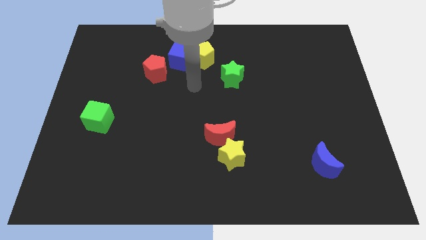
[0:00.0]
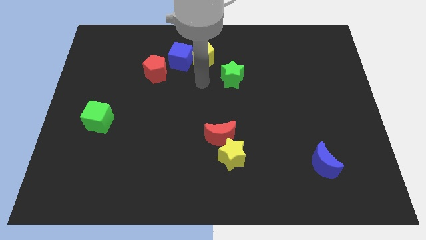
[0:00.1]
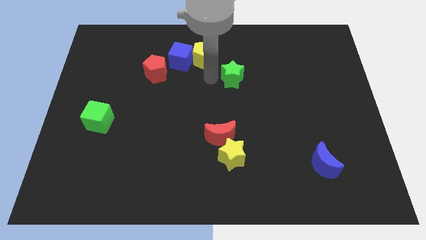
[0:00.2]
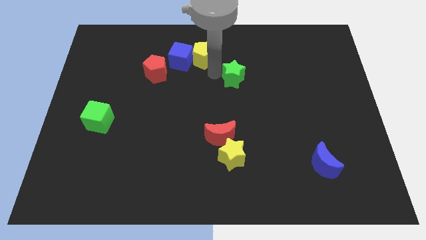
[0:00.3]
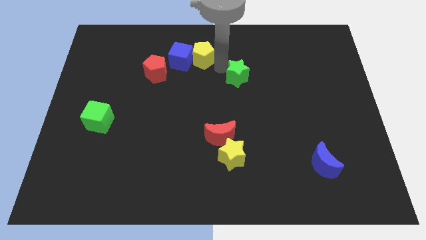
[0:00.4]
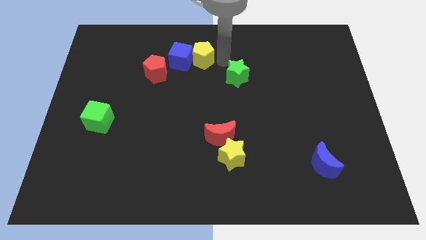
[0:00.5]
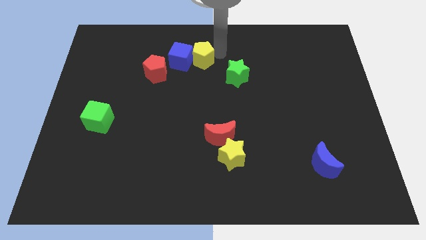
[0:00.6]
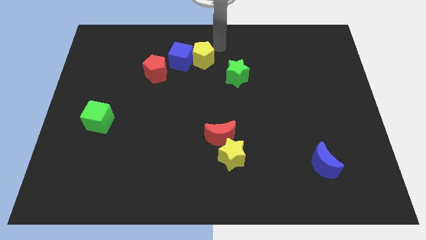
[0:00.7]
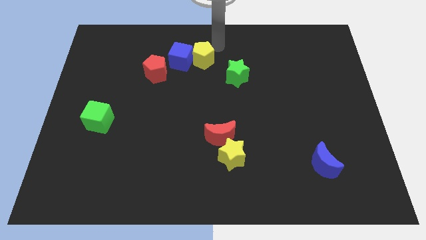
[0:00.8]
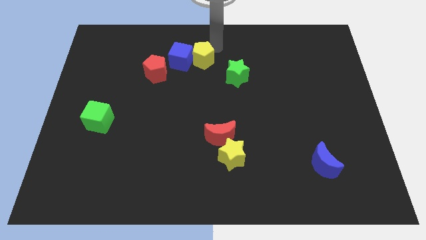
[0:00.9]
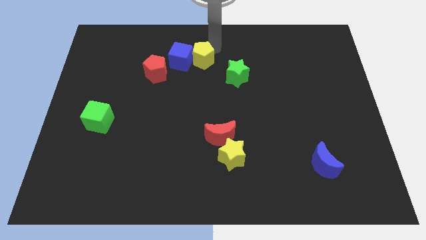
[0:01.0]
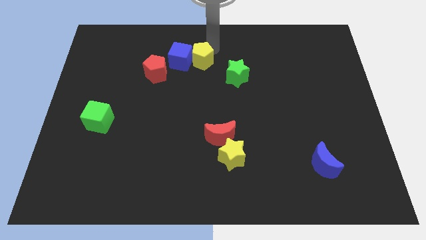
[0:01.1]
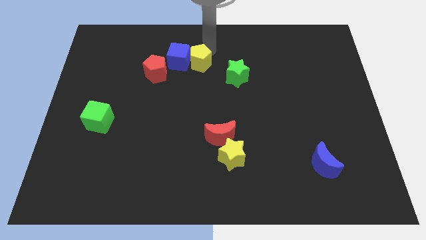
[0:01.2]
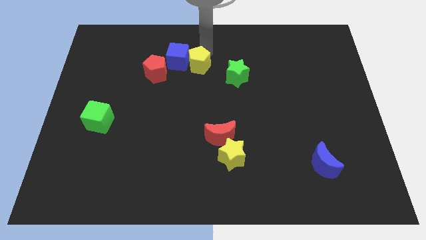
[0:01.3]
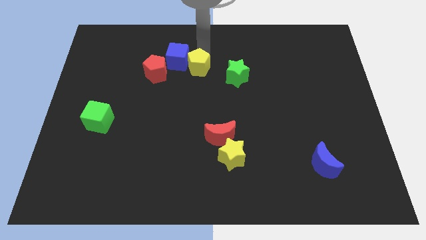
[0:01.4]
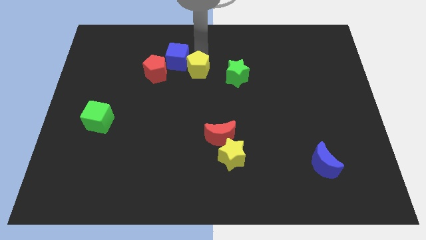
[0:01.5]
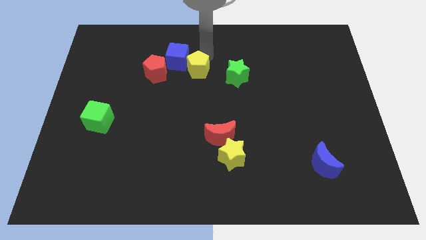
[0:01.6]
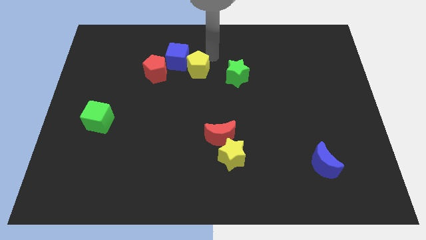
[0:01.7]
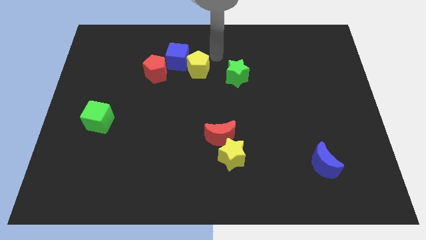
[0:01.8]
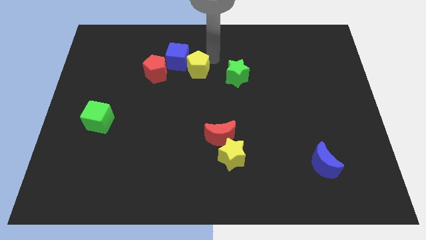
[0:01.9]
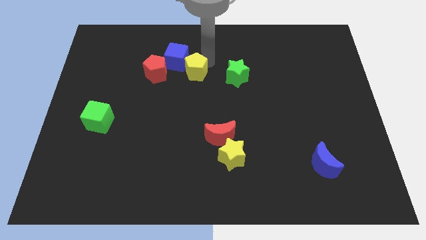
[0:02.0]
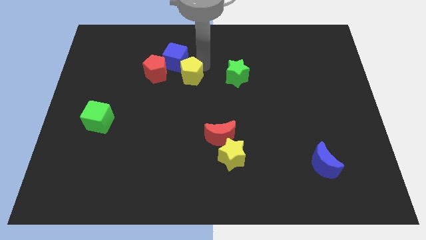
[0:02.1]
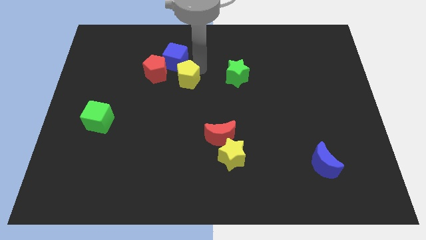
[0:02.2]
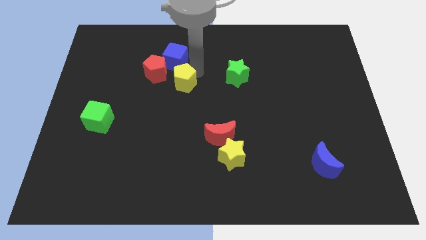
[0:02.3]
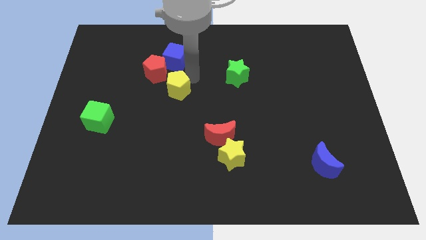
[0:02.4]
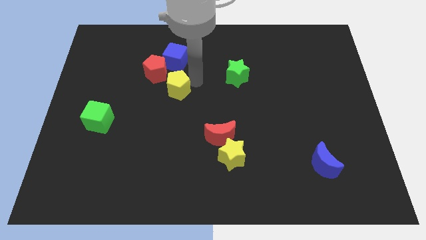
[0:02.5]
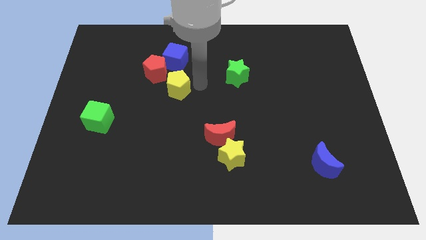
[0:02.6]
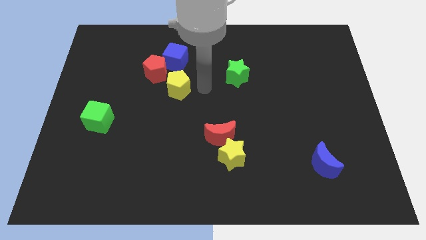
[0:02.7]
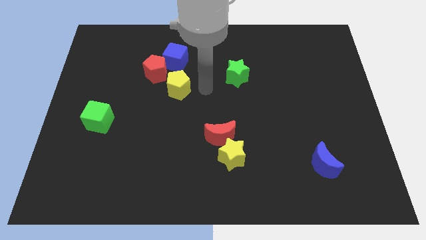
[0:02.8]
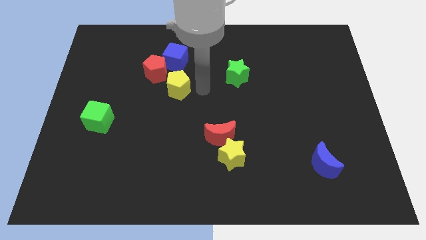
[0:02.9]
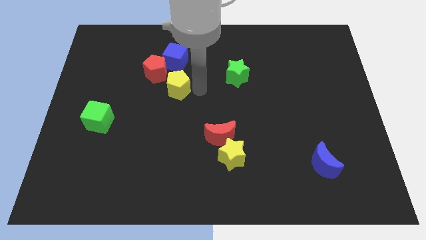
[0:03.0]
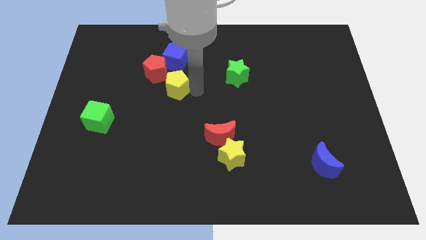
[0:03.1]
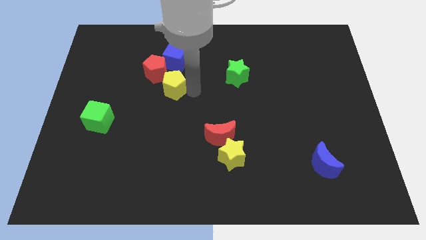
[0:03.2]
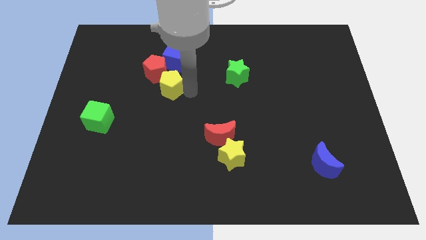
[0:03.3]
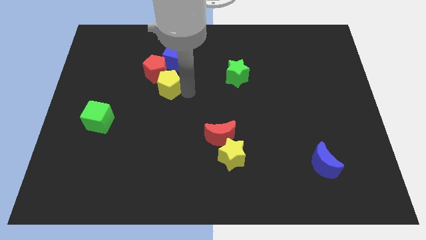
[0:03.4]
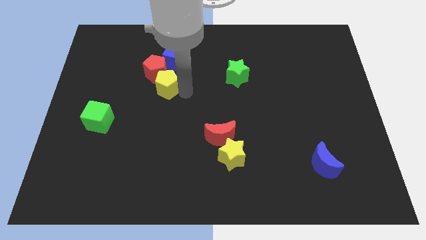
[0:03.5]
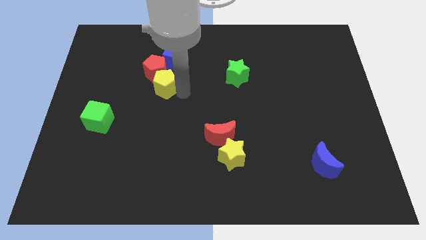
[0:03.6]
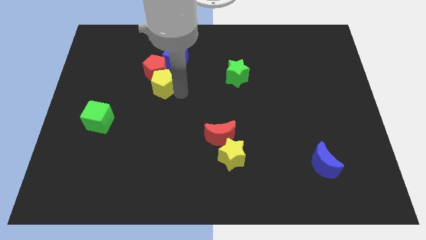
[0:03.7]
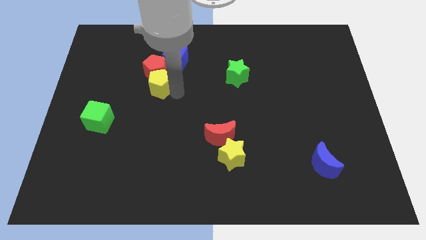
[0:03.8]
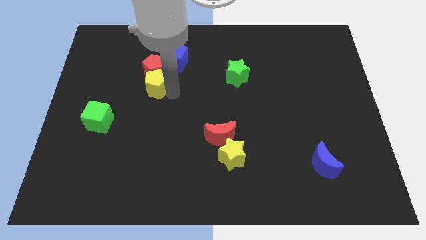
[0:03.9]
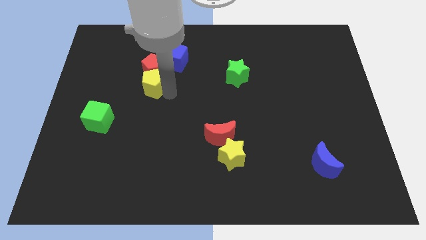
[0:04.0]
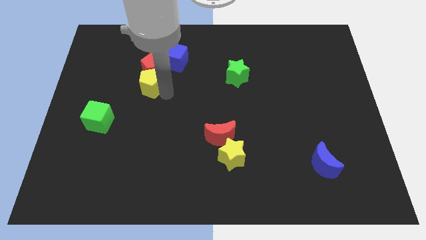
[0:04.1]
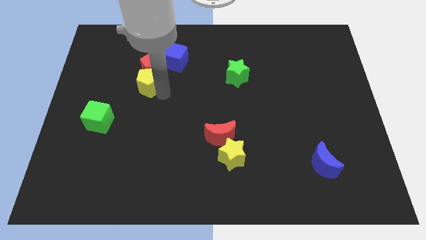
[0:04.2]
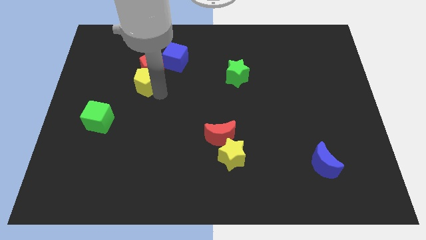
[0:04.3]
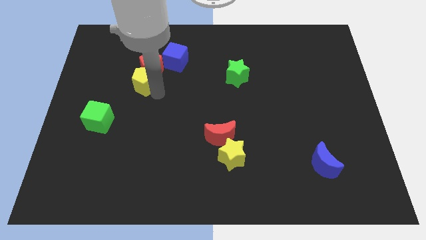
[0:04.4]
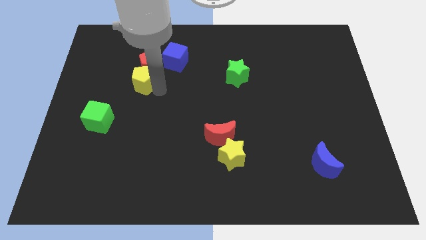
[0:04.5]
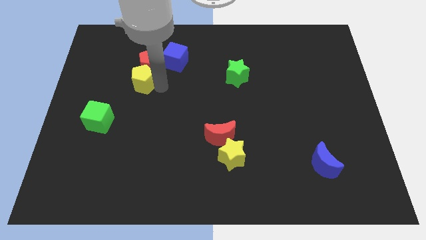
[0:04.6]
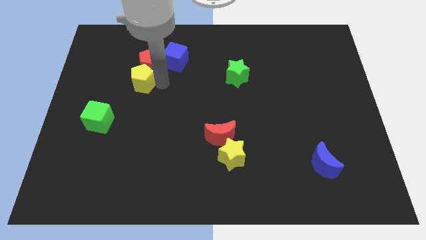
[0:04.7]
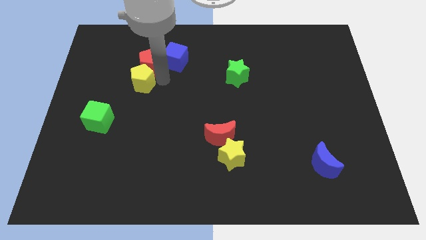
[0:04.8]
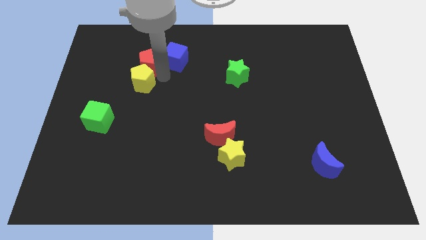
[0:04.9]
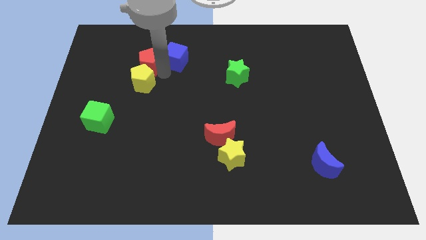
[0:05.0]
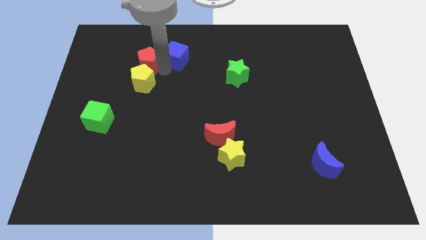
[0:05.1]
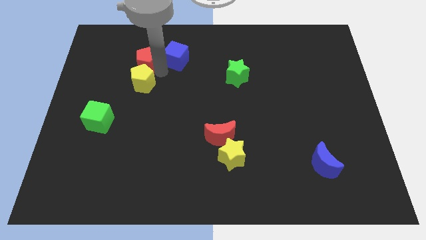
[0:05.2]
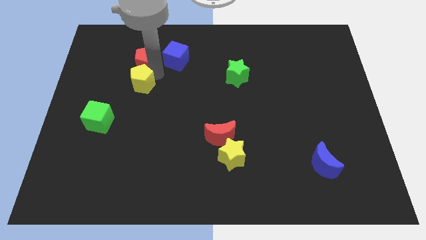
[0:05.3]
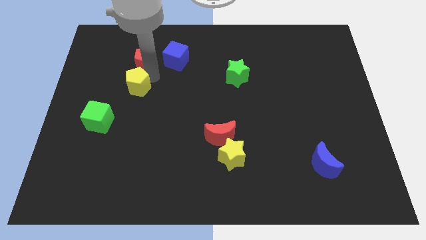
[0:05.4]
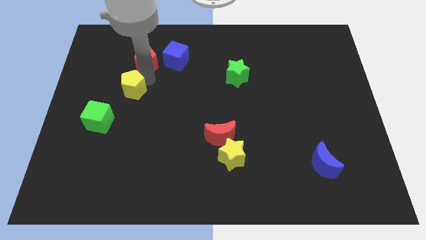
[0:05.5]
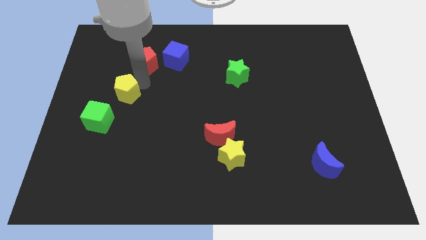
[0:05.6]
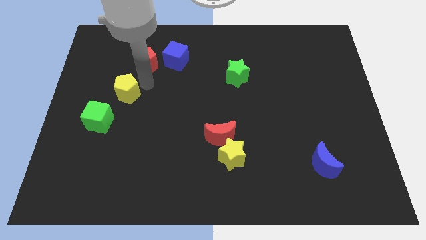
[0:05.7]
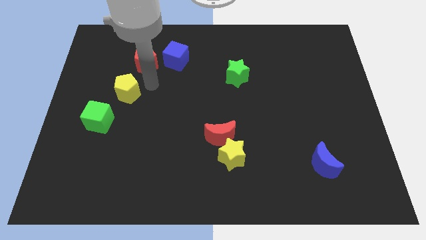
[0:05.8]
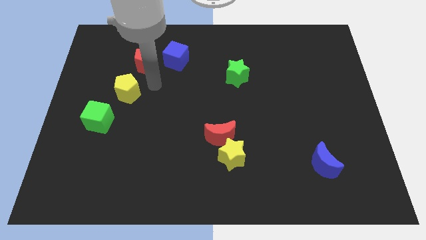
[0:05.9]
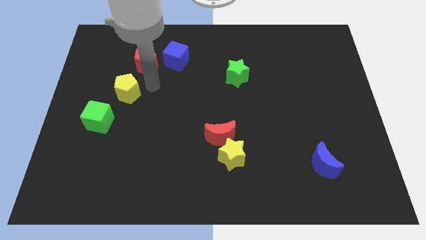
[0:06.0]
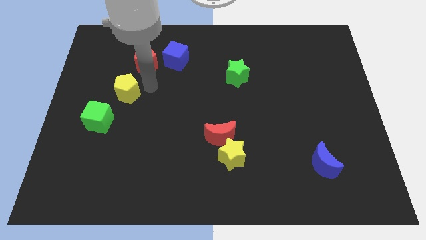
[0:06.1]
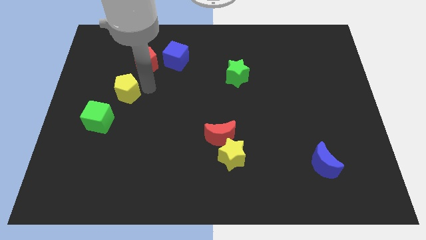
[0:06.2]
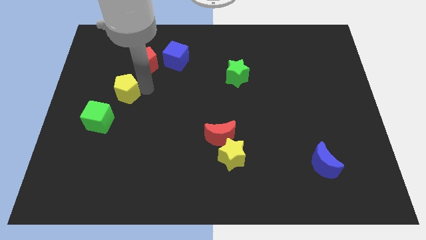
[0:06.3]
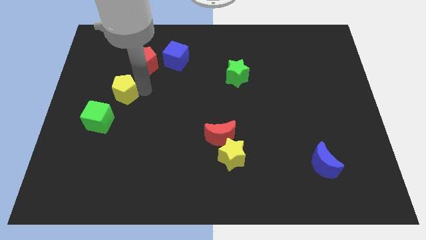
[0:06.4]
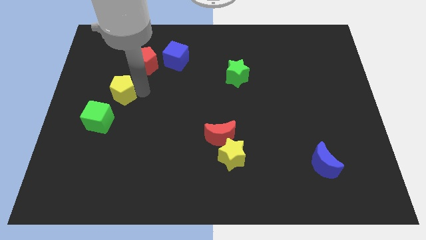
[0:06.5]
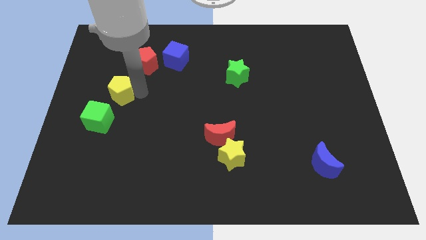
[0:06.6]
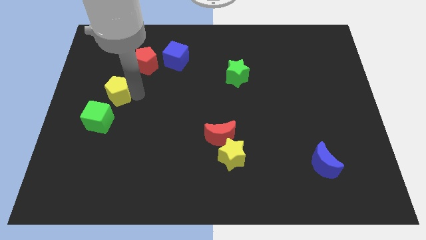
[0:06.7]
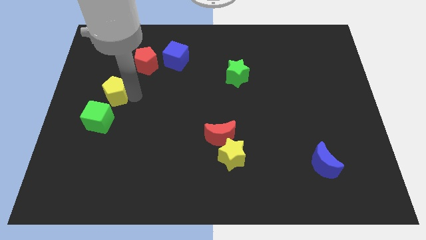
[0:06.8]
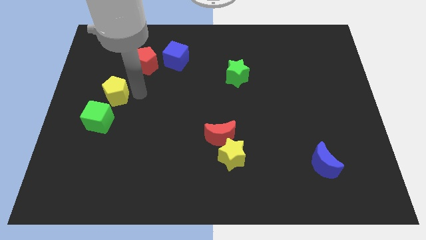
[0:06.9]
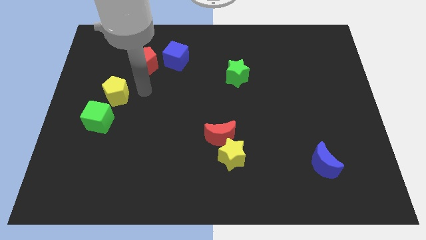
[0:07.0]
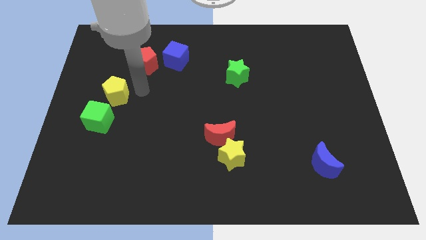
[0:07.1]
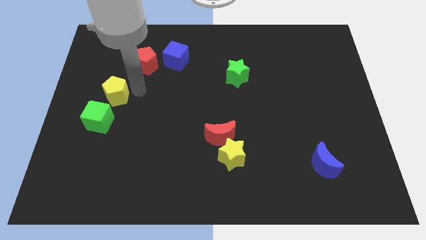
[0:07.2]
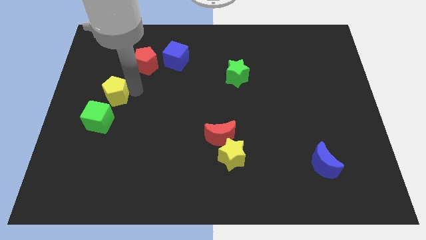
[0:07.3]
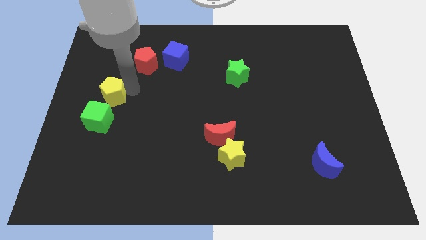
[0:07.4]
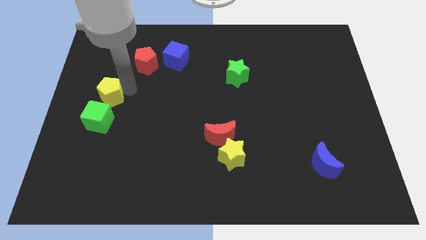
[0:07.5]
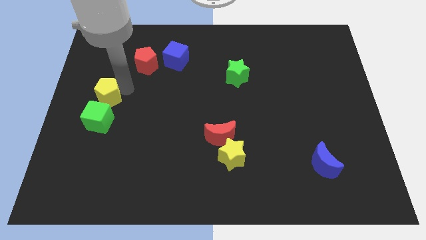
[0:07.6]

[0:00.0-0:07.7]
push the yellow pentagon to the center left
